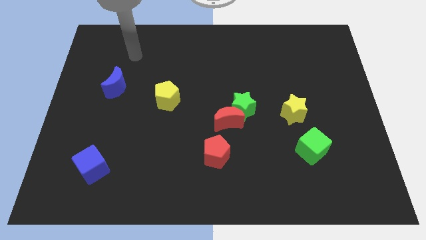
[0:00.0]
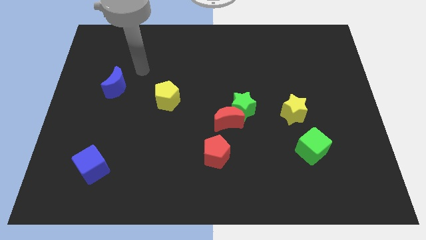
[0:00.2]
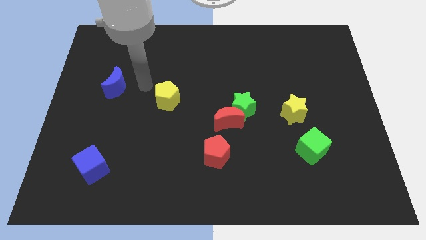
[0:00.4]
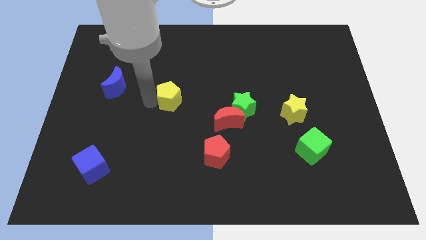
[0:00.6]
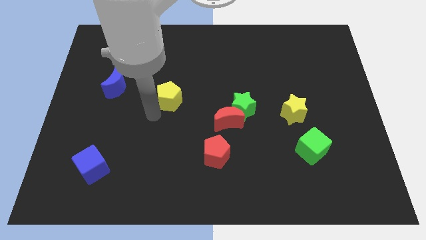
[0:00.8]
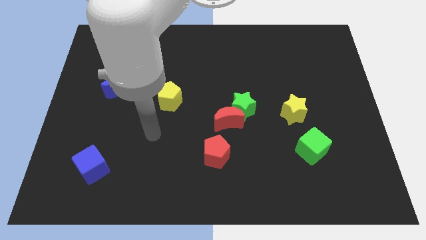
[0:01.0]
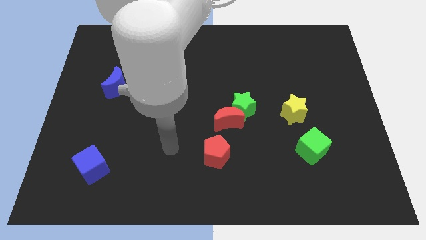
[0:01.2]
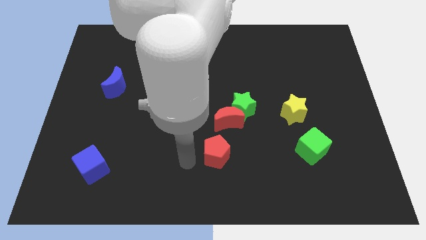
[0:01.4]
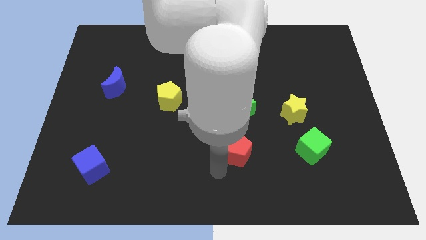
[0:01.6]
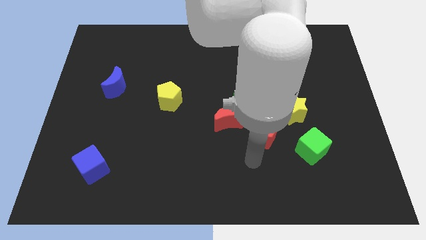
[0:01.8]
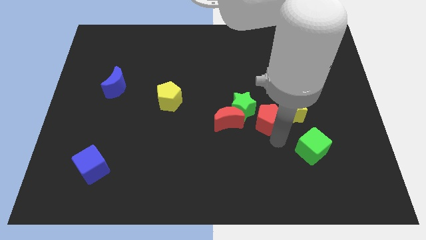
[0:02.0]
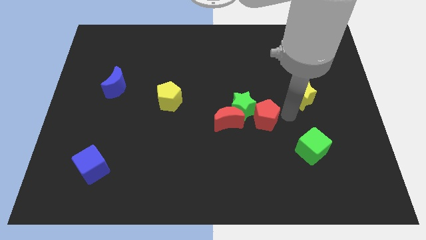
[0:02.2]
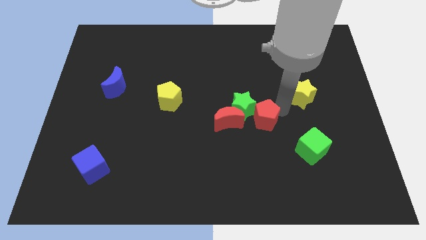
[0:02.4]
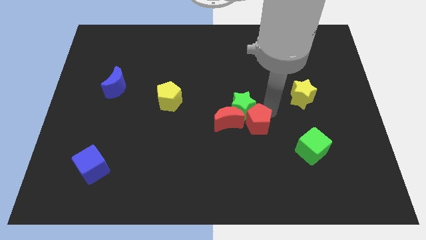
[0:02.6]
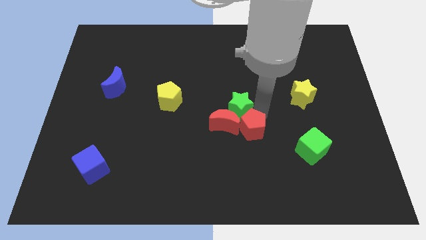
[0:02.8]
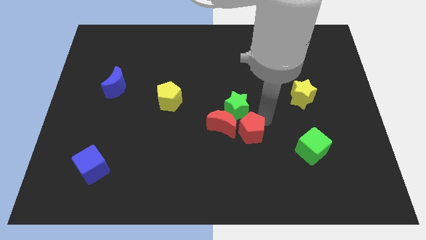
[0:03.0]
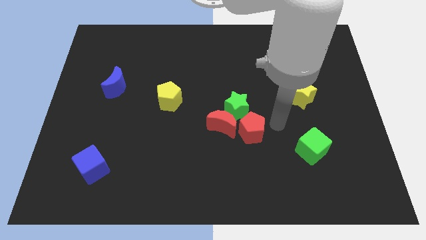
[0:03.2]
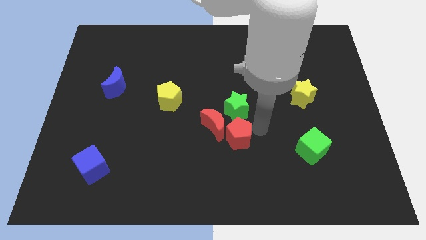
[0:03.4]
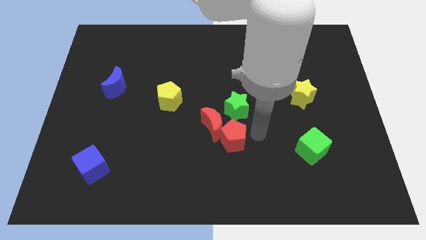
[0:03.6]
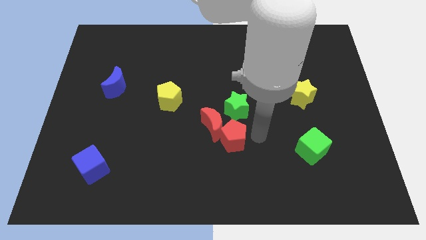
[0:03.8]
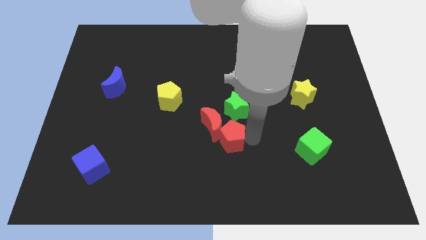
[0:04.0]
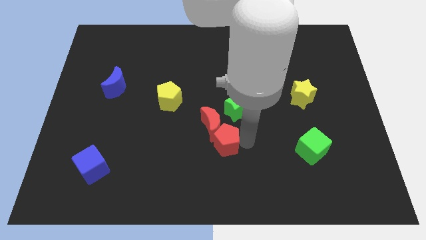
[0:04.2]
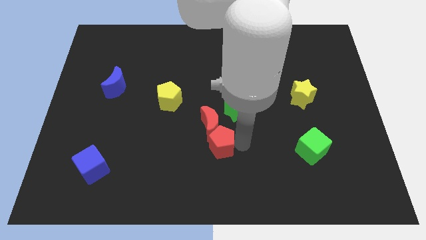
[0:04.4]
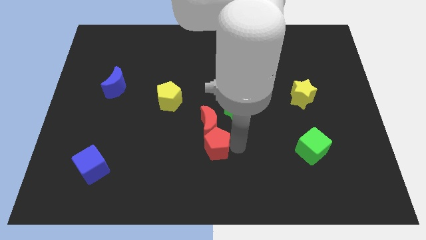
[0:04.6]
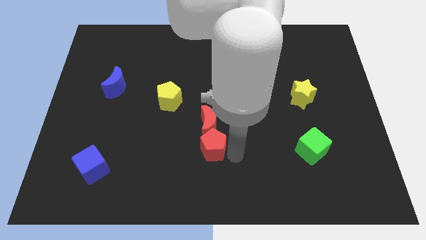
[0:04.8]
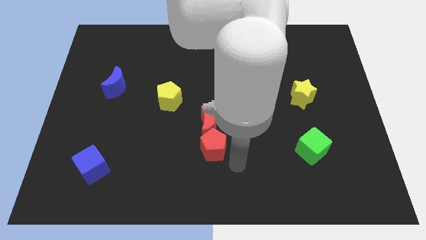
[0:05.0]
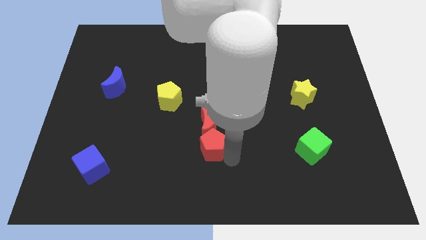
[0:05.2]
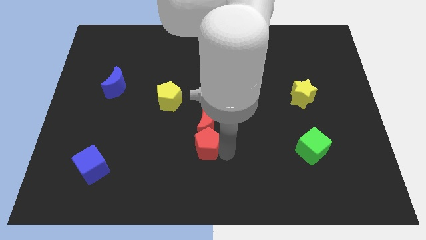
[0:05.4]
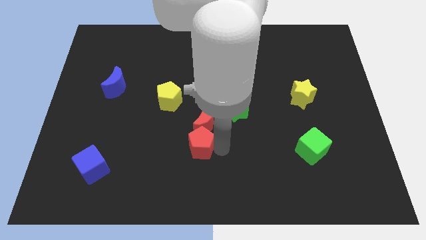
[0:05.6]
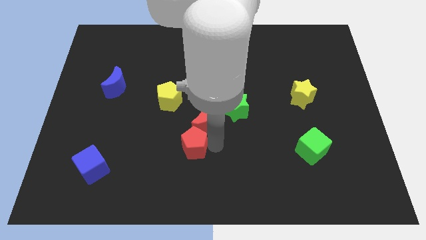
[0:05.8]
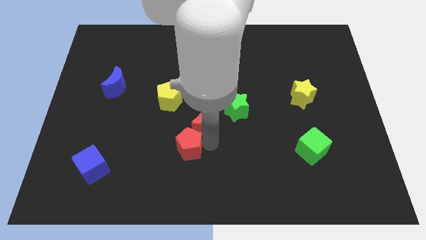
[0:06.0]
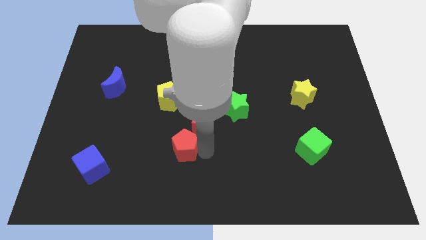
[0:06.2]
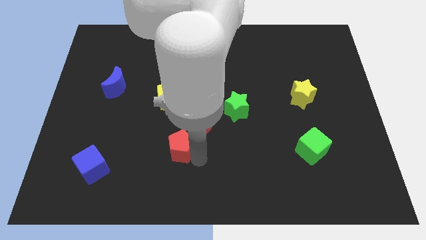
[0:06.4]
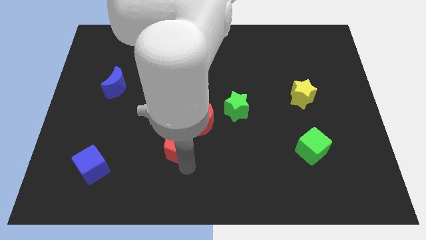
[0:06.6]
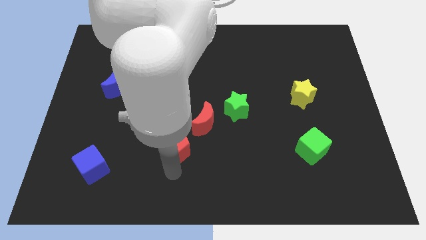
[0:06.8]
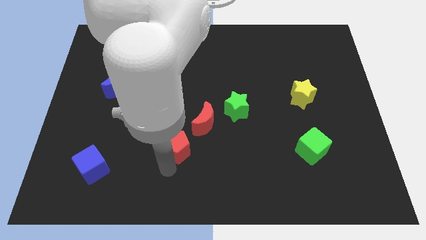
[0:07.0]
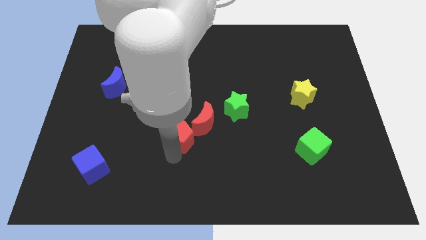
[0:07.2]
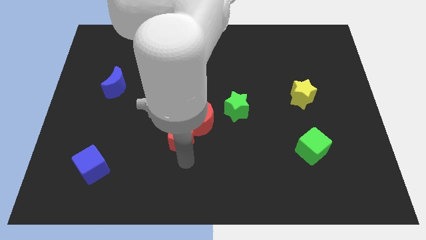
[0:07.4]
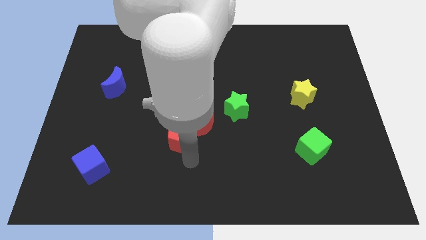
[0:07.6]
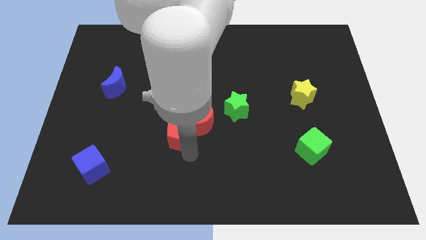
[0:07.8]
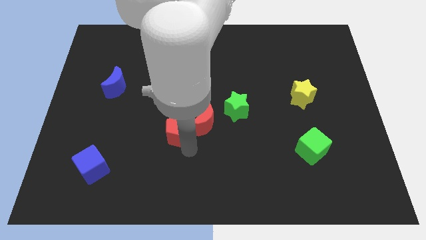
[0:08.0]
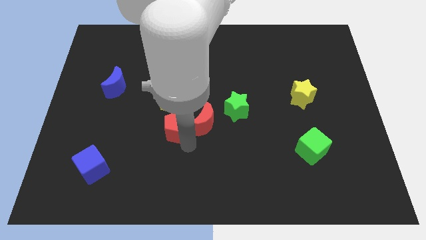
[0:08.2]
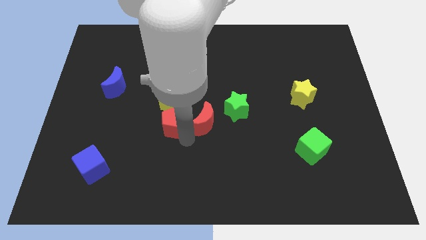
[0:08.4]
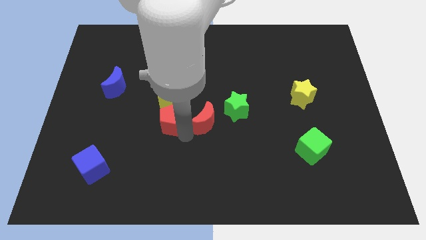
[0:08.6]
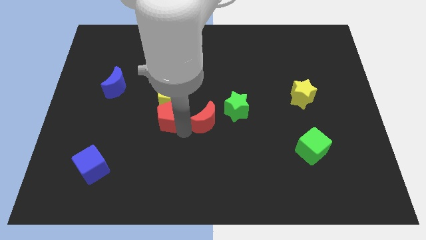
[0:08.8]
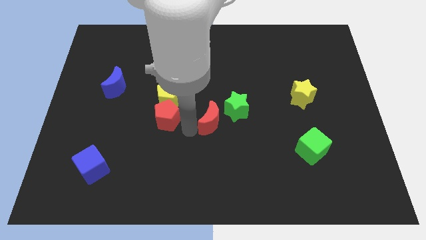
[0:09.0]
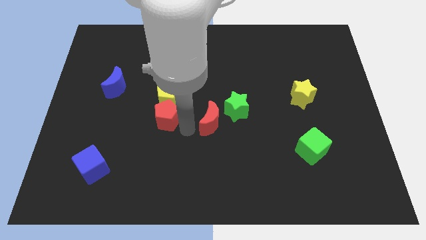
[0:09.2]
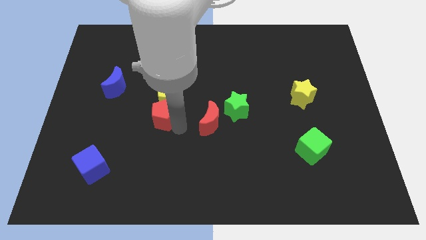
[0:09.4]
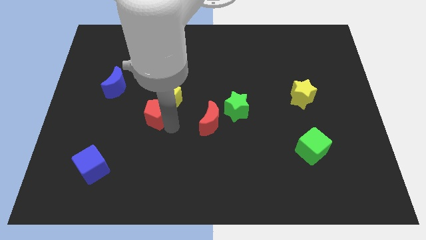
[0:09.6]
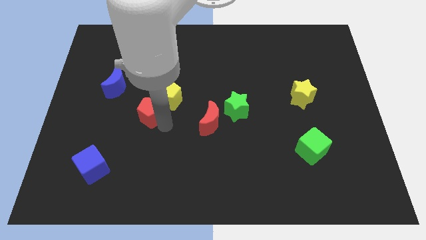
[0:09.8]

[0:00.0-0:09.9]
put the red pentagon diagonally down and to the right of the blue moon

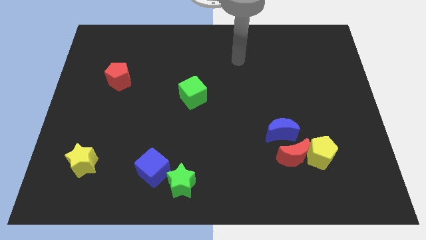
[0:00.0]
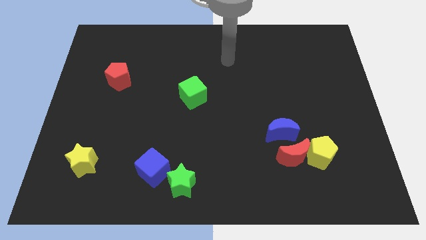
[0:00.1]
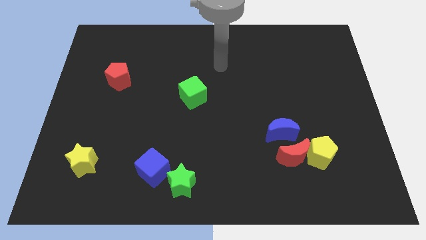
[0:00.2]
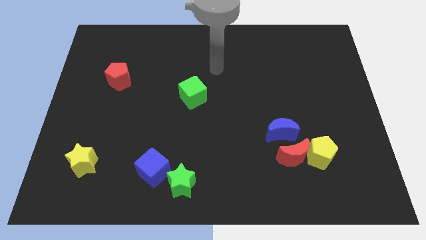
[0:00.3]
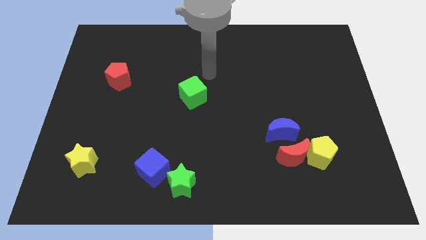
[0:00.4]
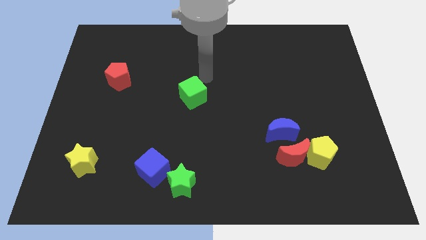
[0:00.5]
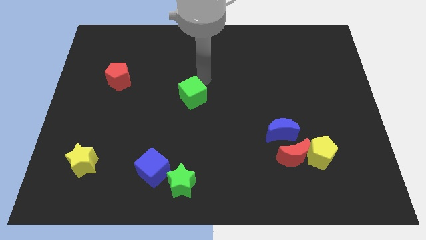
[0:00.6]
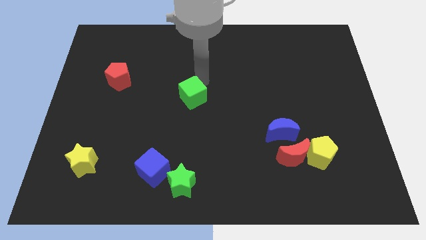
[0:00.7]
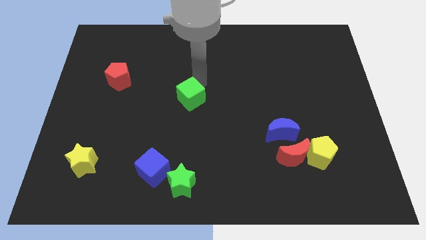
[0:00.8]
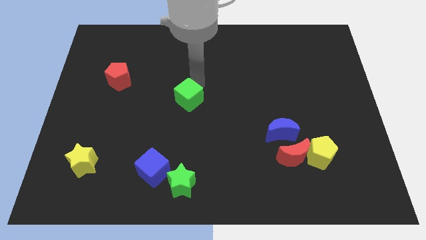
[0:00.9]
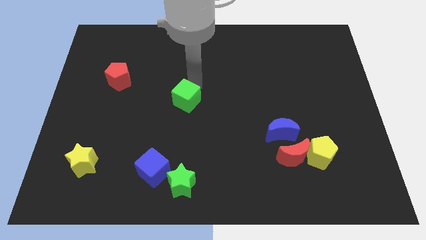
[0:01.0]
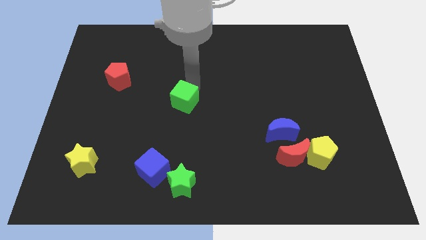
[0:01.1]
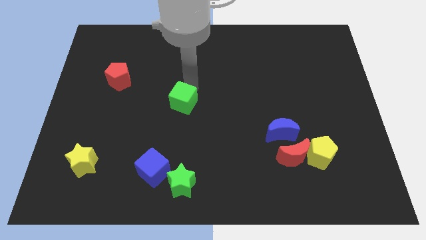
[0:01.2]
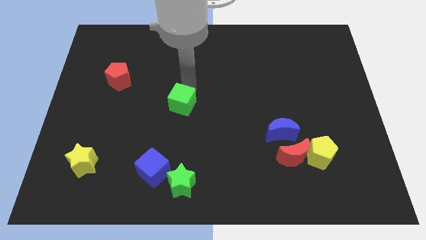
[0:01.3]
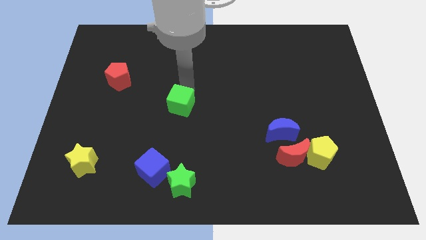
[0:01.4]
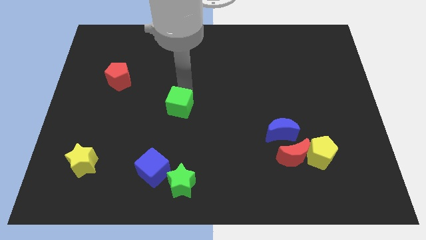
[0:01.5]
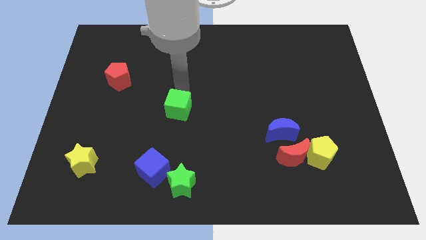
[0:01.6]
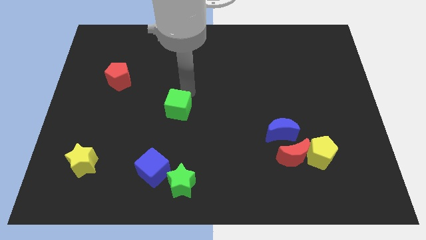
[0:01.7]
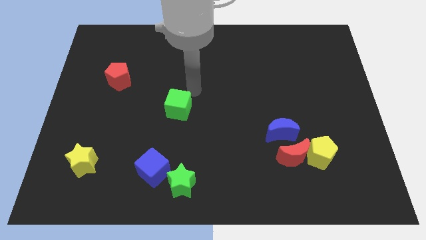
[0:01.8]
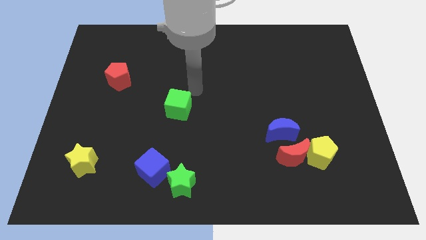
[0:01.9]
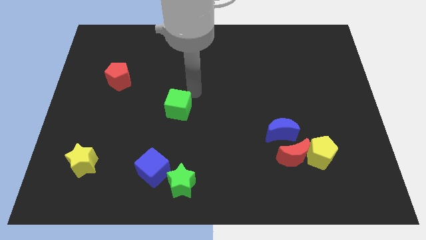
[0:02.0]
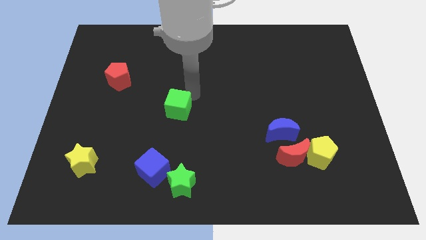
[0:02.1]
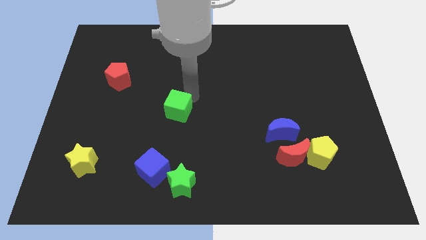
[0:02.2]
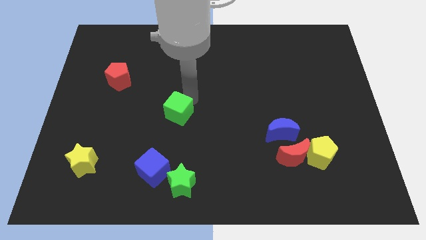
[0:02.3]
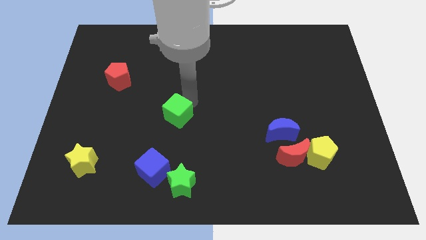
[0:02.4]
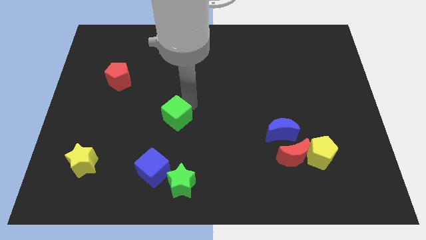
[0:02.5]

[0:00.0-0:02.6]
push the green cube above the blue cube

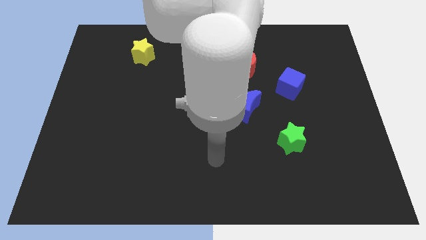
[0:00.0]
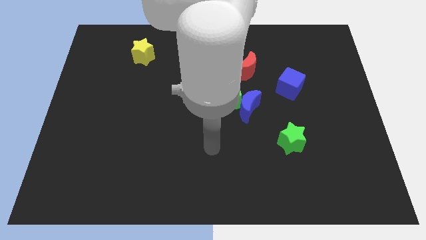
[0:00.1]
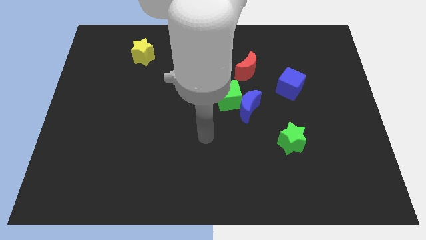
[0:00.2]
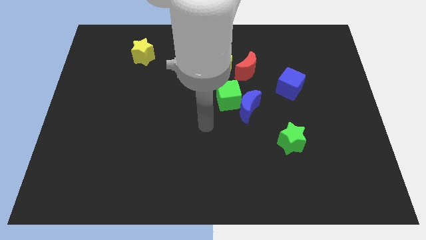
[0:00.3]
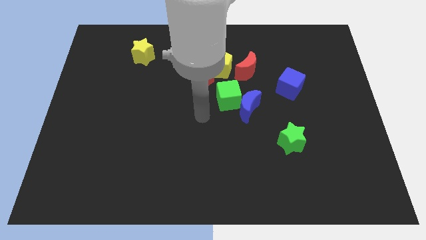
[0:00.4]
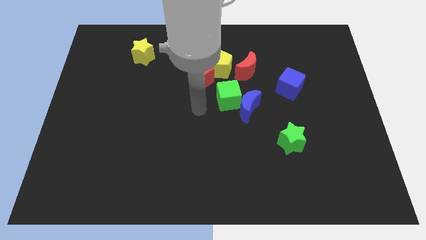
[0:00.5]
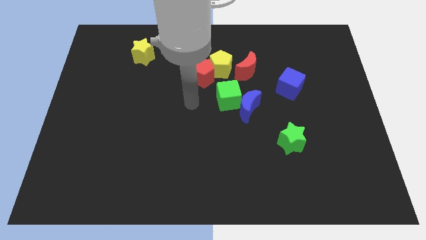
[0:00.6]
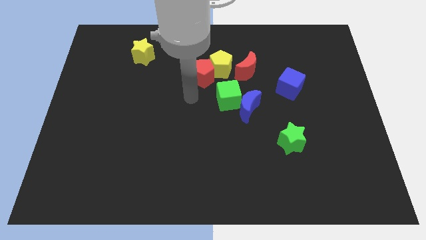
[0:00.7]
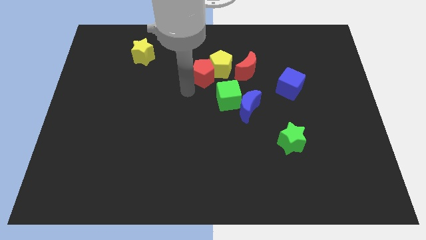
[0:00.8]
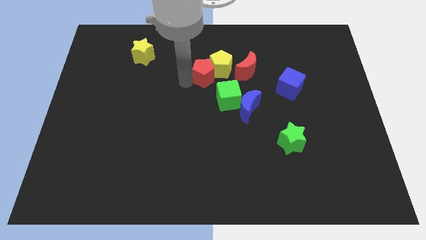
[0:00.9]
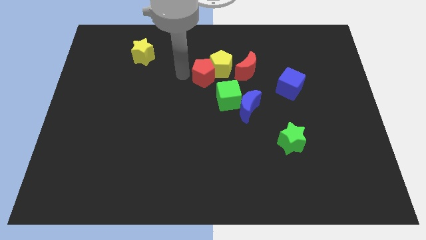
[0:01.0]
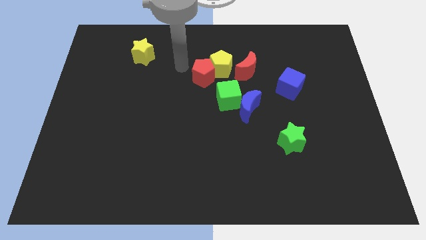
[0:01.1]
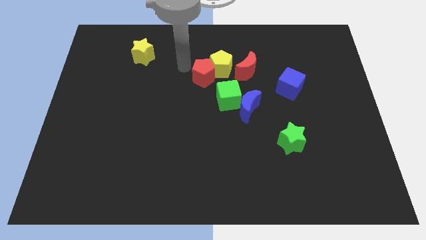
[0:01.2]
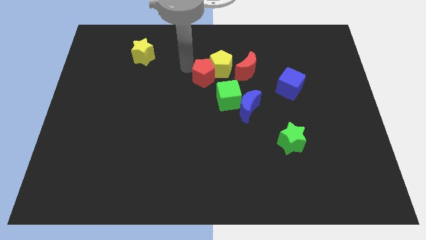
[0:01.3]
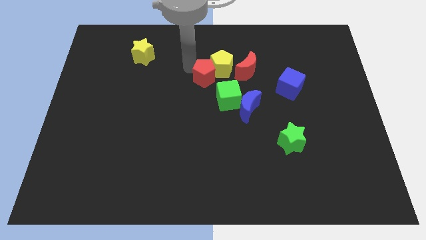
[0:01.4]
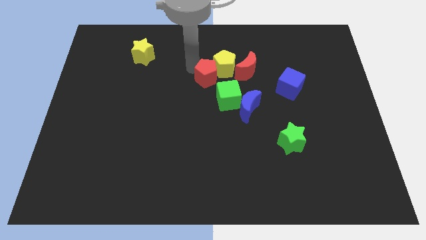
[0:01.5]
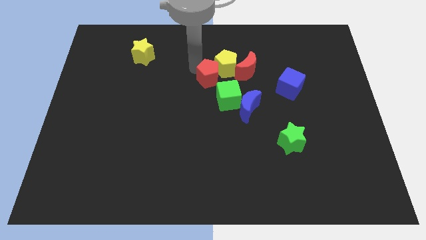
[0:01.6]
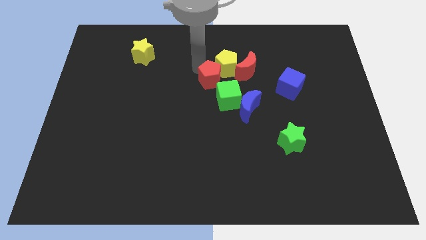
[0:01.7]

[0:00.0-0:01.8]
slide the red pentagon to the bottom left side of the red moon
